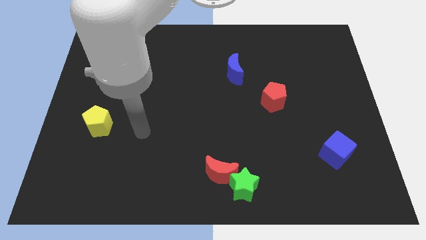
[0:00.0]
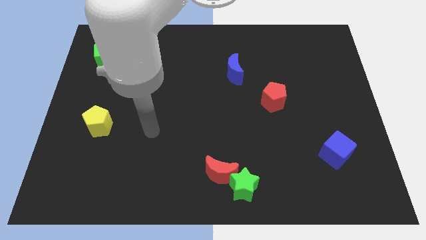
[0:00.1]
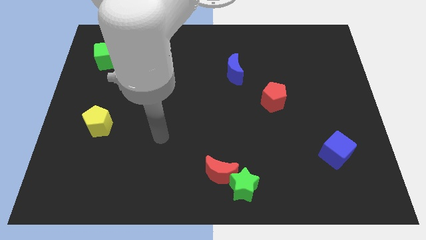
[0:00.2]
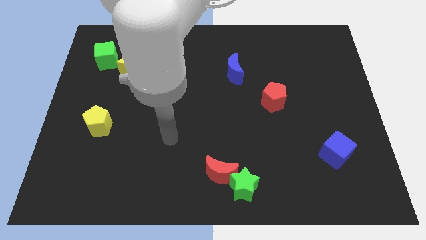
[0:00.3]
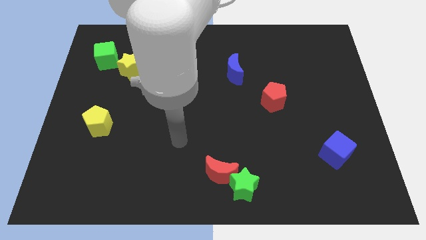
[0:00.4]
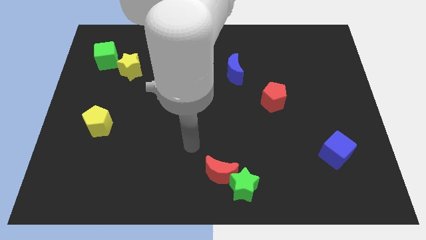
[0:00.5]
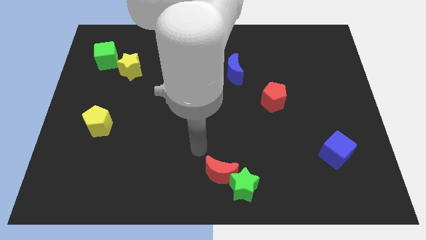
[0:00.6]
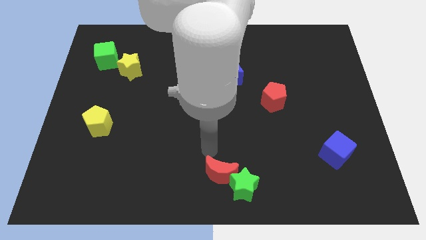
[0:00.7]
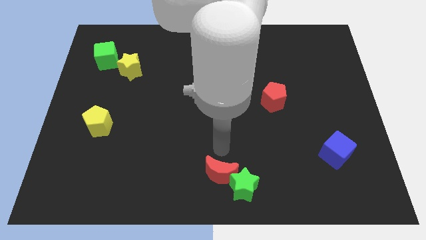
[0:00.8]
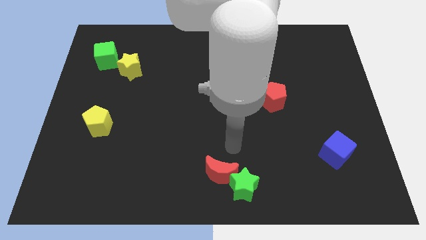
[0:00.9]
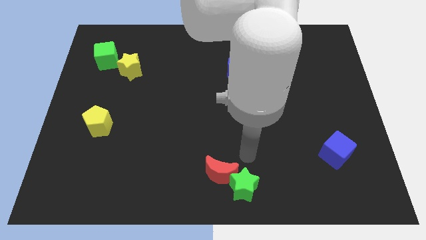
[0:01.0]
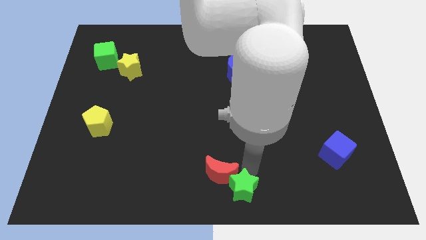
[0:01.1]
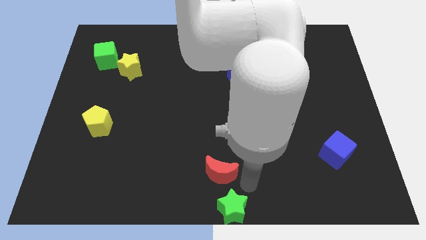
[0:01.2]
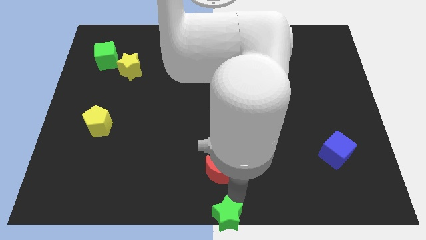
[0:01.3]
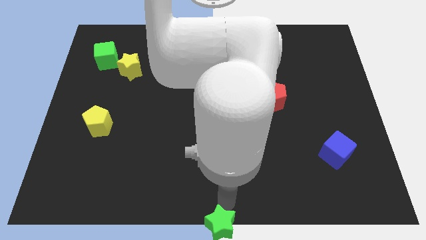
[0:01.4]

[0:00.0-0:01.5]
separate the red moon from the green star

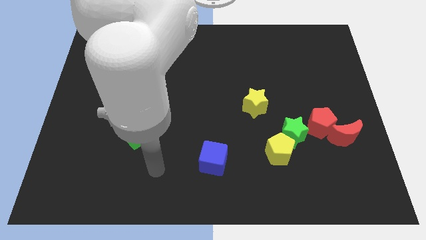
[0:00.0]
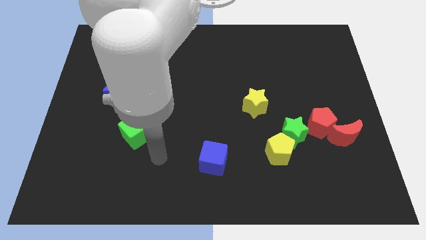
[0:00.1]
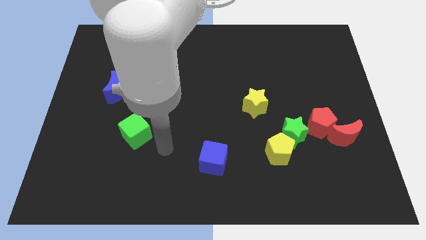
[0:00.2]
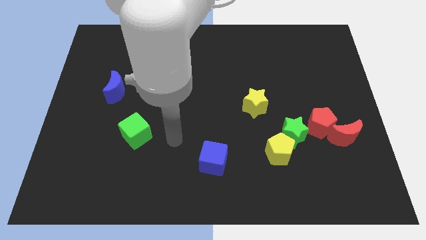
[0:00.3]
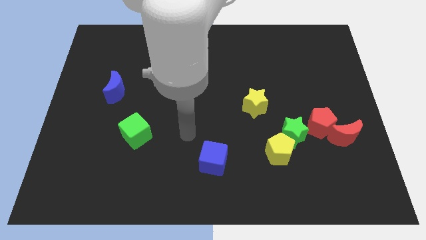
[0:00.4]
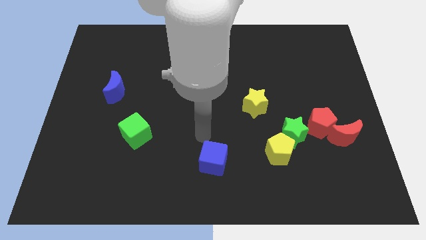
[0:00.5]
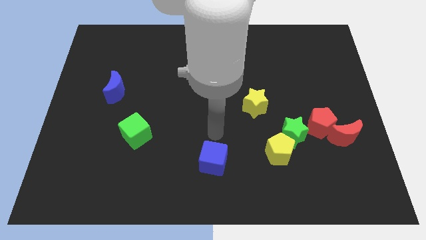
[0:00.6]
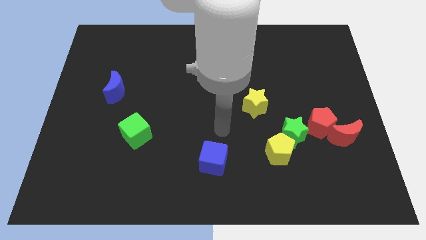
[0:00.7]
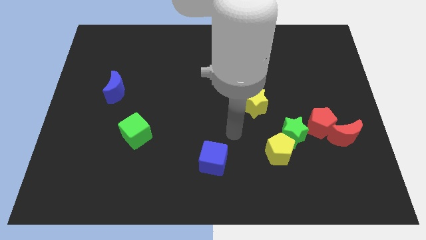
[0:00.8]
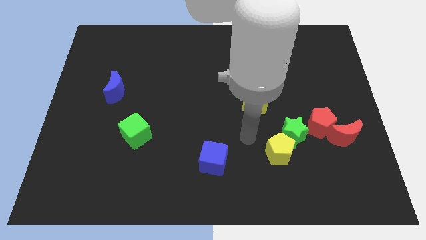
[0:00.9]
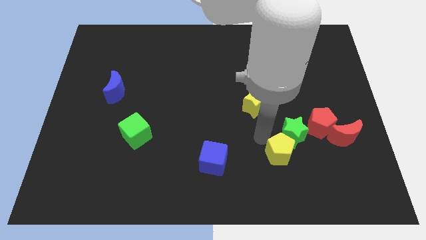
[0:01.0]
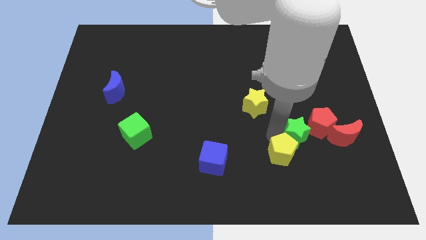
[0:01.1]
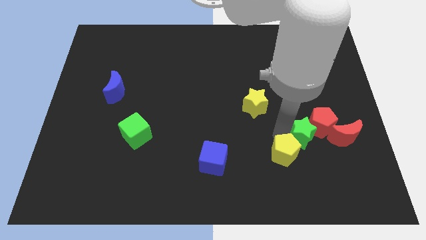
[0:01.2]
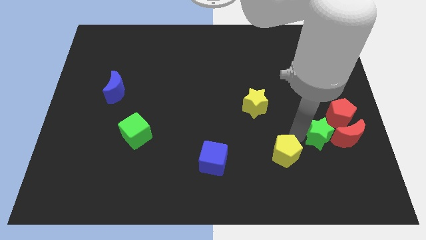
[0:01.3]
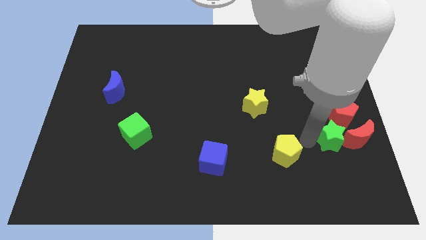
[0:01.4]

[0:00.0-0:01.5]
pull the yellow pentagon apart from the green star

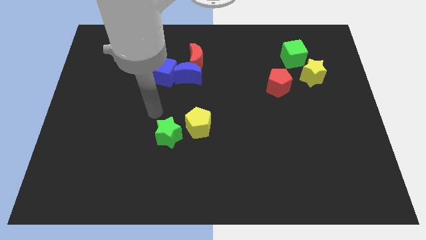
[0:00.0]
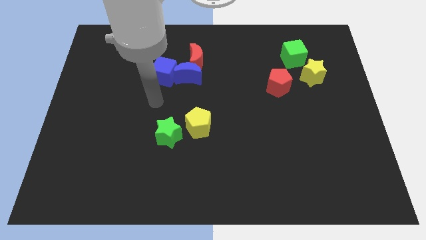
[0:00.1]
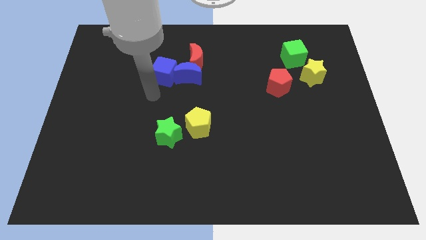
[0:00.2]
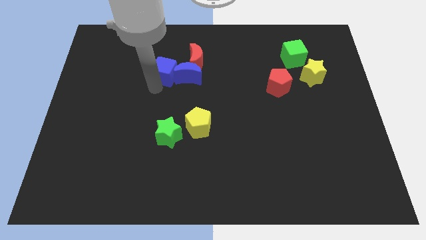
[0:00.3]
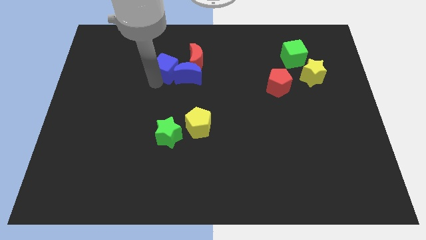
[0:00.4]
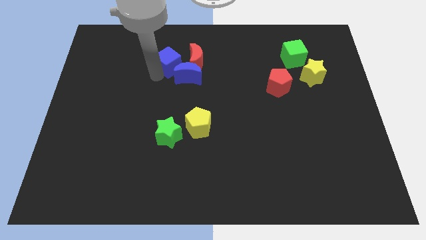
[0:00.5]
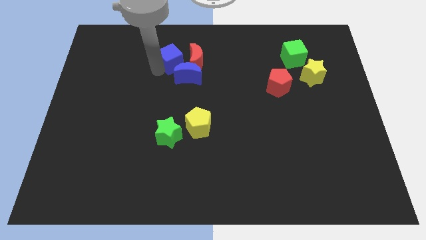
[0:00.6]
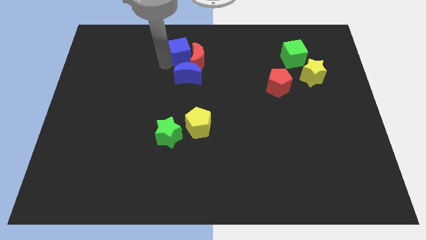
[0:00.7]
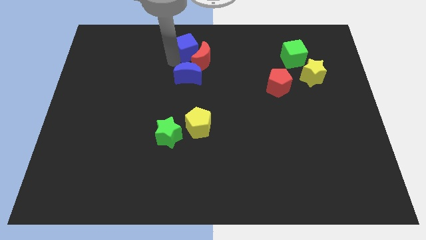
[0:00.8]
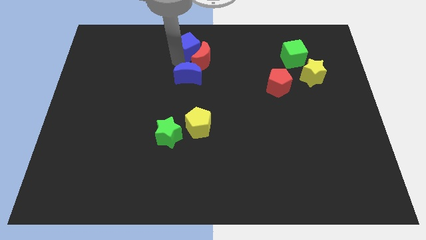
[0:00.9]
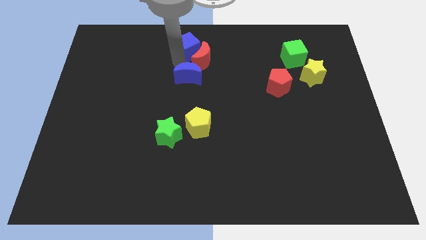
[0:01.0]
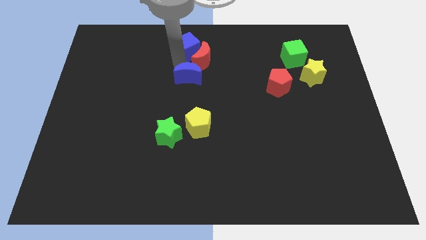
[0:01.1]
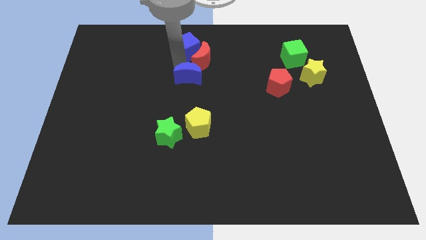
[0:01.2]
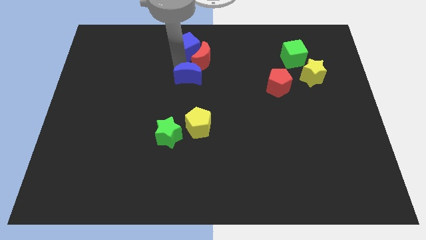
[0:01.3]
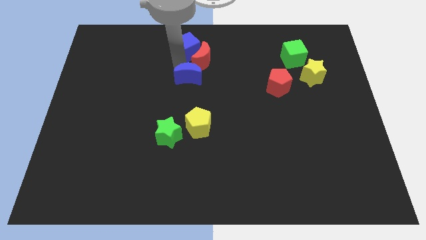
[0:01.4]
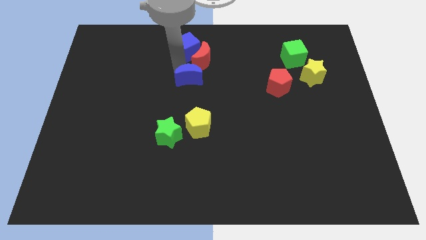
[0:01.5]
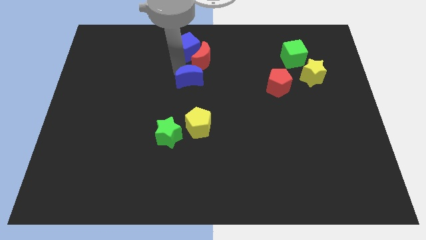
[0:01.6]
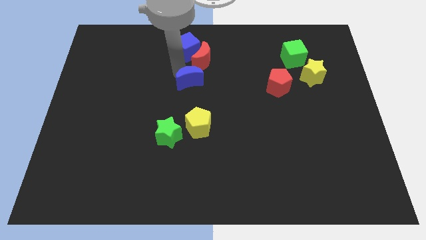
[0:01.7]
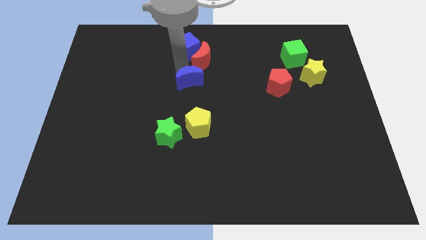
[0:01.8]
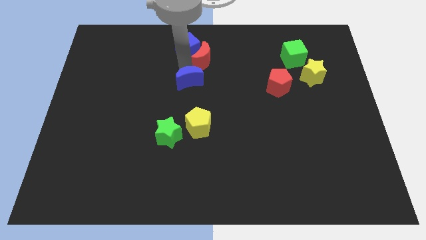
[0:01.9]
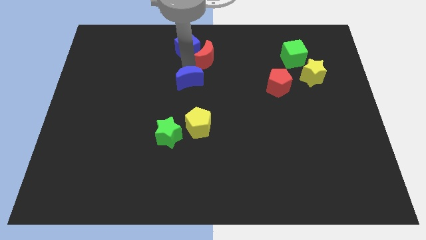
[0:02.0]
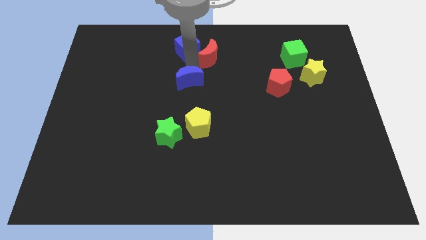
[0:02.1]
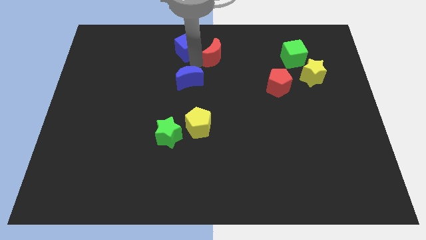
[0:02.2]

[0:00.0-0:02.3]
move the blue moon away from the red moon and blue cube

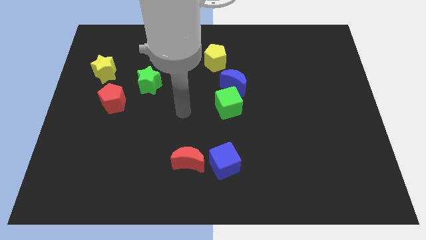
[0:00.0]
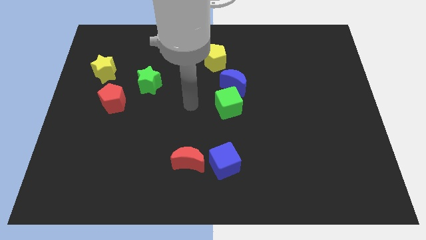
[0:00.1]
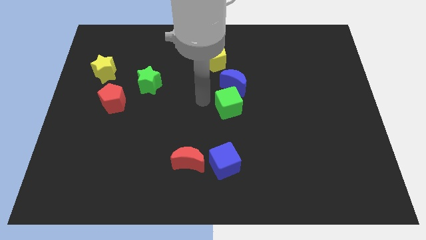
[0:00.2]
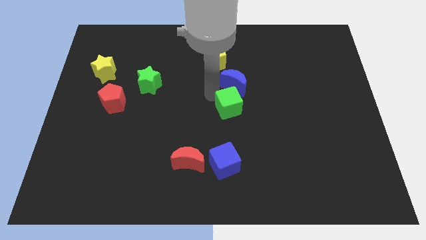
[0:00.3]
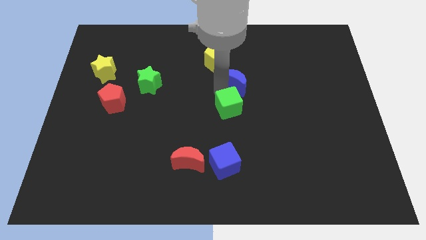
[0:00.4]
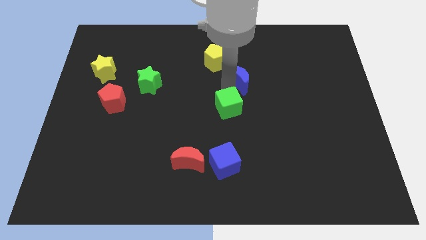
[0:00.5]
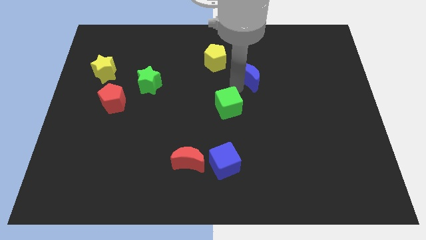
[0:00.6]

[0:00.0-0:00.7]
pull the green cube apart from the blue moon

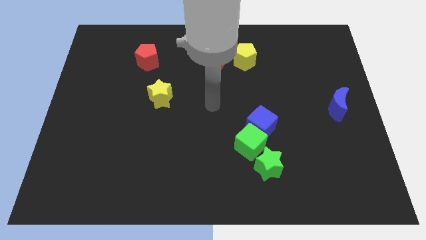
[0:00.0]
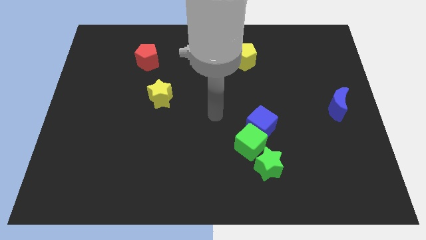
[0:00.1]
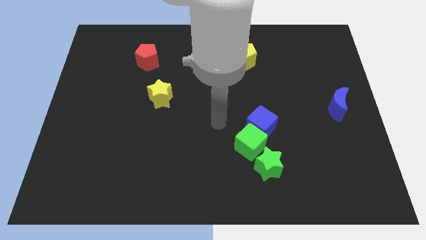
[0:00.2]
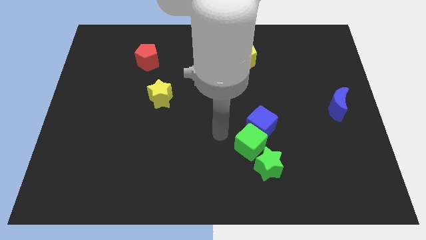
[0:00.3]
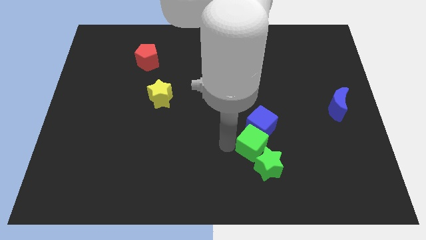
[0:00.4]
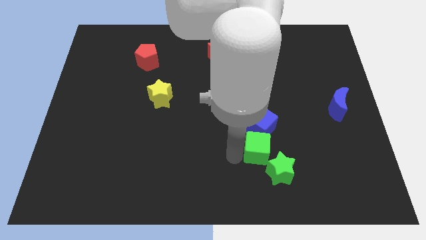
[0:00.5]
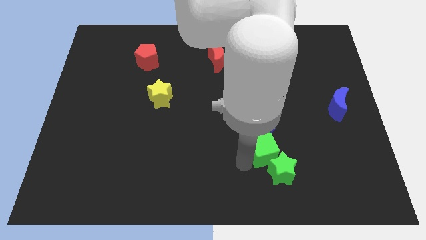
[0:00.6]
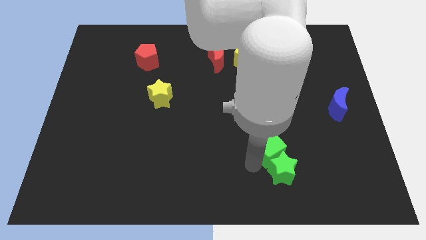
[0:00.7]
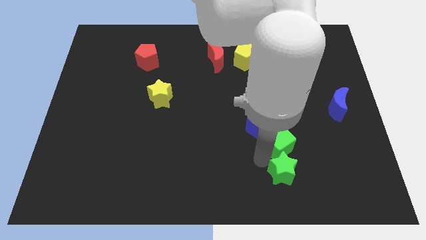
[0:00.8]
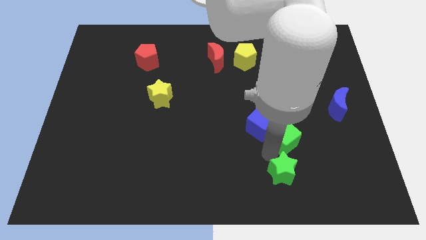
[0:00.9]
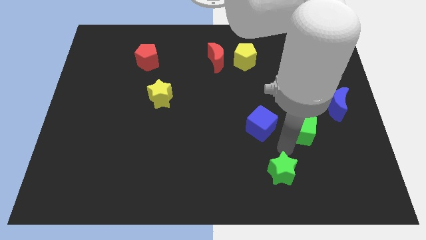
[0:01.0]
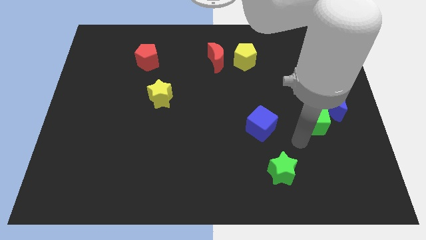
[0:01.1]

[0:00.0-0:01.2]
move the green cube away from the blue cube and green star

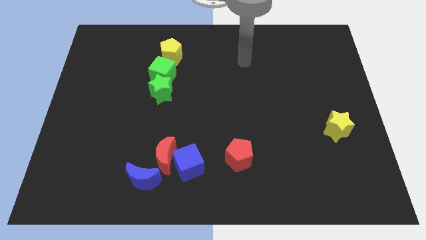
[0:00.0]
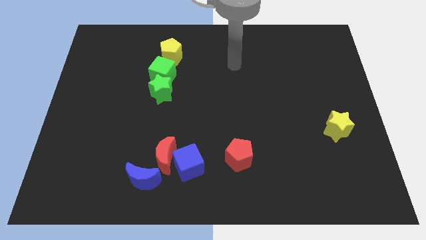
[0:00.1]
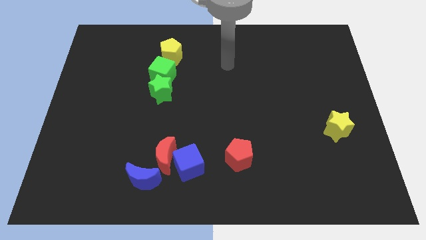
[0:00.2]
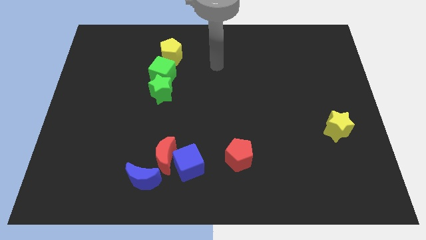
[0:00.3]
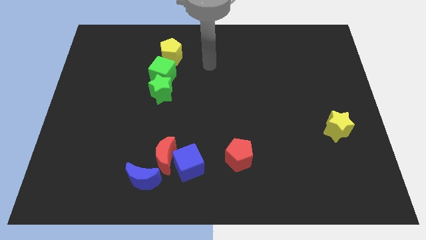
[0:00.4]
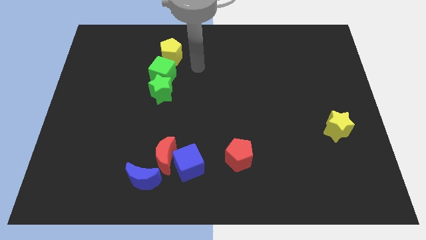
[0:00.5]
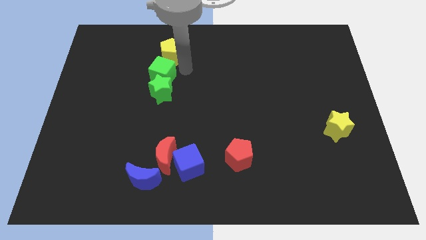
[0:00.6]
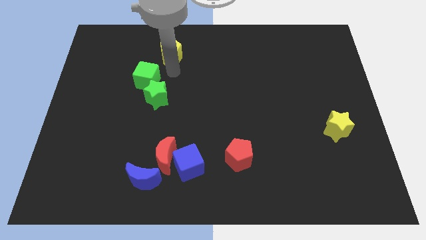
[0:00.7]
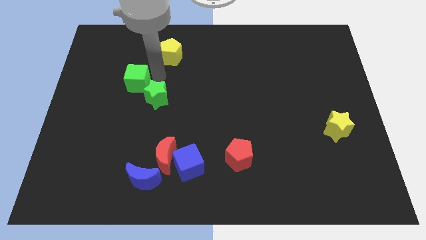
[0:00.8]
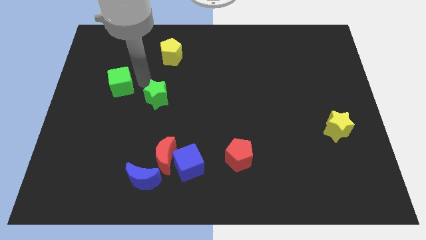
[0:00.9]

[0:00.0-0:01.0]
pull the green star apart from the green cube

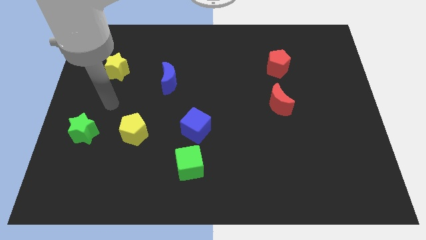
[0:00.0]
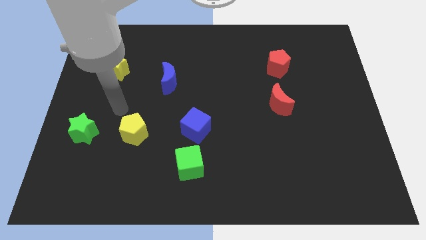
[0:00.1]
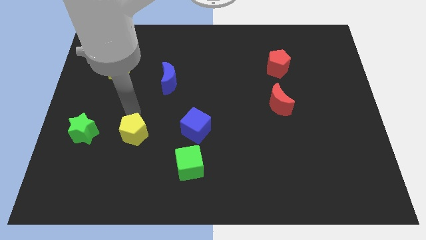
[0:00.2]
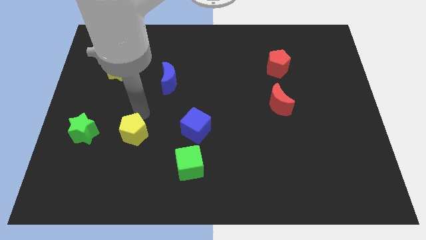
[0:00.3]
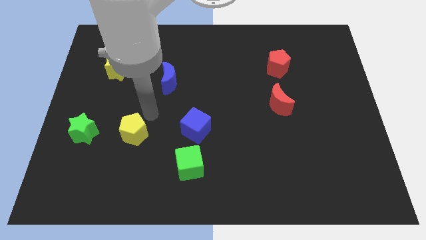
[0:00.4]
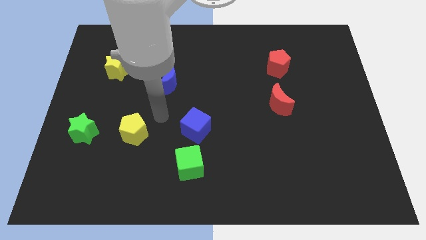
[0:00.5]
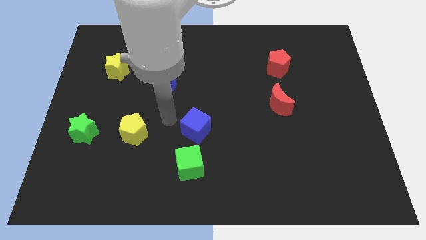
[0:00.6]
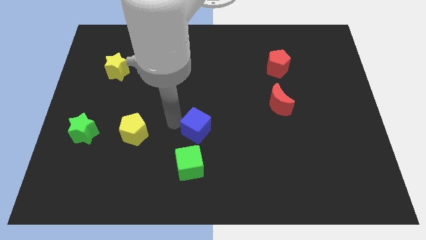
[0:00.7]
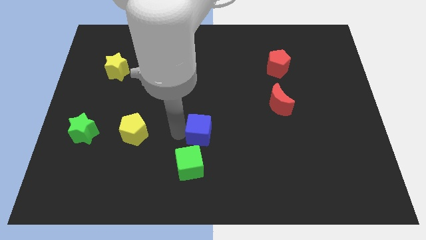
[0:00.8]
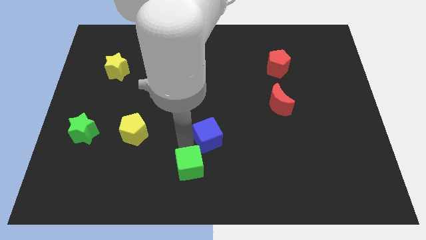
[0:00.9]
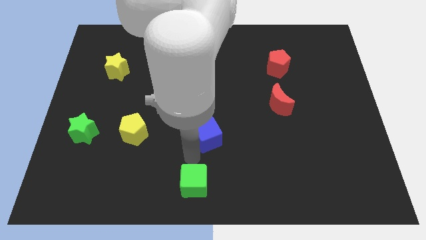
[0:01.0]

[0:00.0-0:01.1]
separate the blue cube from the green cube
